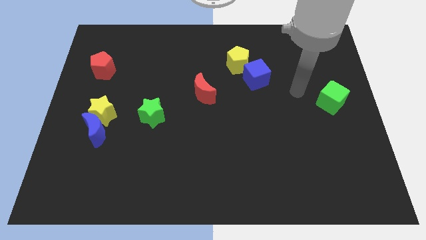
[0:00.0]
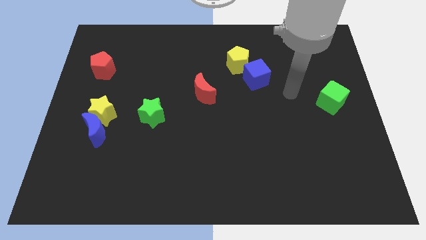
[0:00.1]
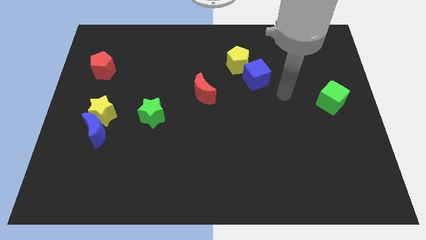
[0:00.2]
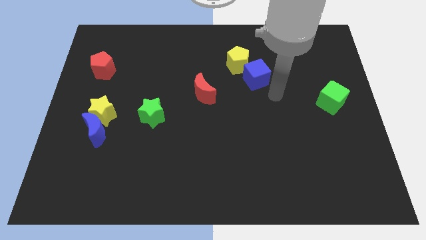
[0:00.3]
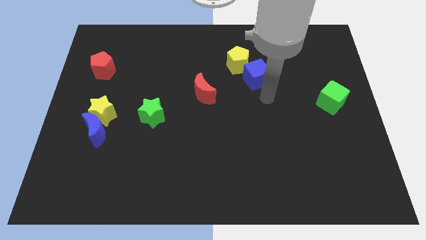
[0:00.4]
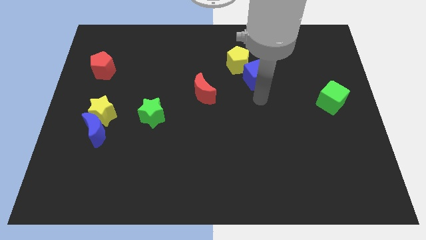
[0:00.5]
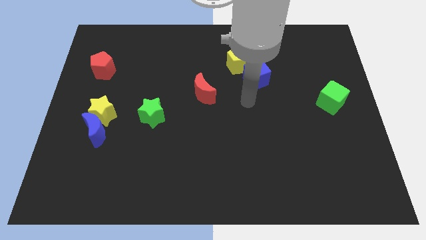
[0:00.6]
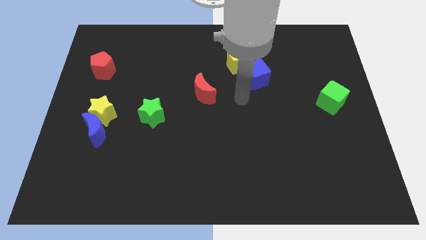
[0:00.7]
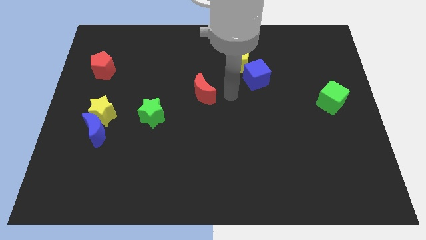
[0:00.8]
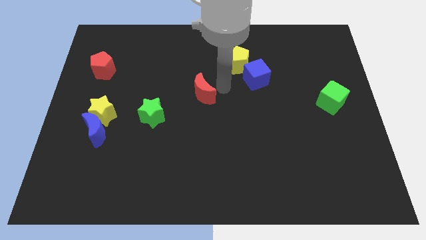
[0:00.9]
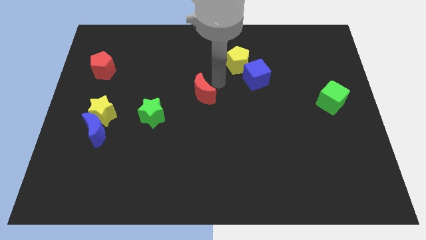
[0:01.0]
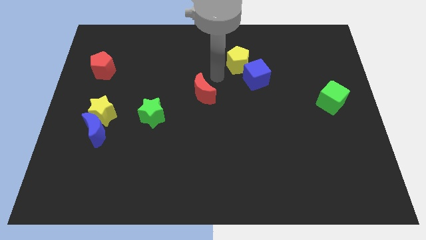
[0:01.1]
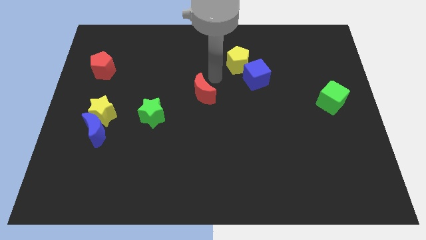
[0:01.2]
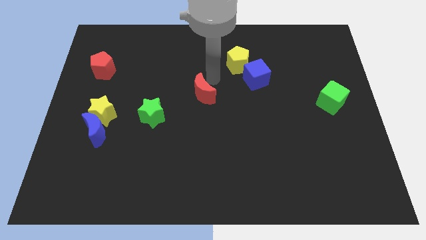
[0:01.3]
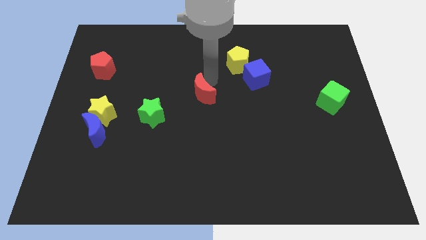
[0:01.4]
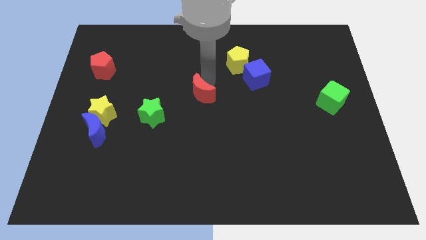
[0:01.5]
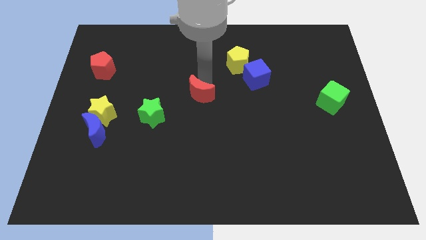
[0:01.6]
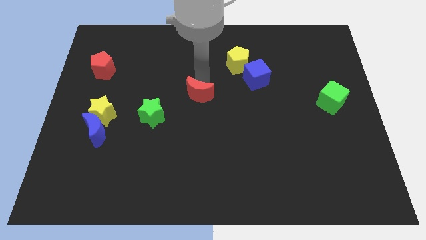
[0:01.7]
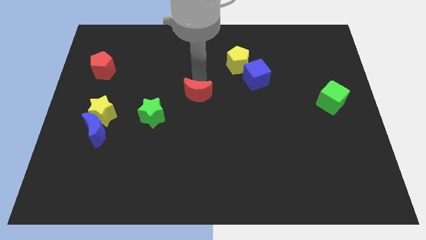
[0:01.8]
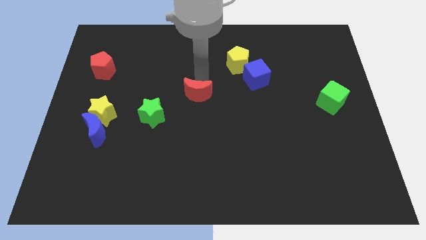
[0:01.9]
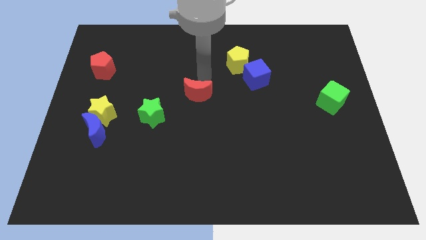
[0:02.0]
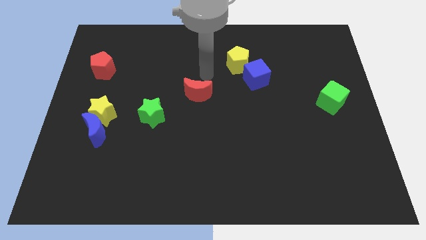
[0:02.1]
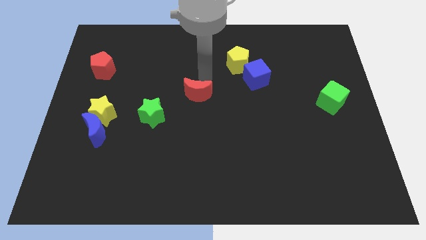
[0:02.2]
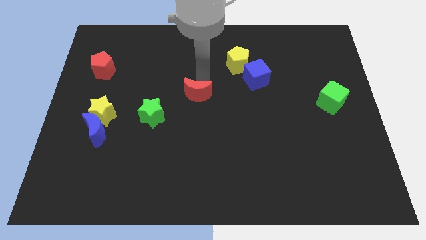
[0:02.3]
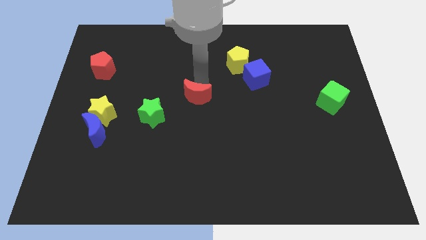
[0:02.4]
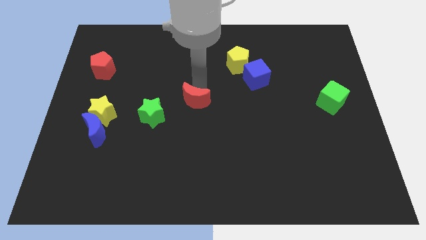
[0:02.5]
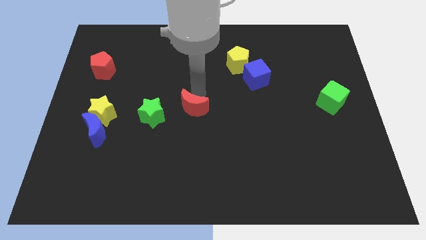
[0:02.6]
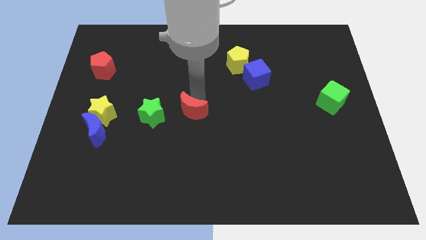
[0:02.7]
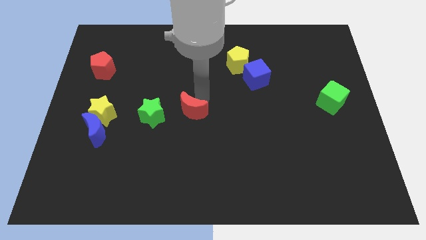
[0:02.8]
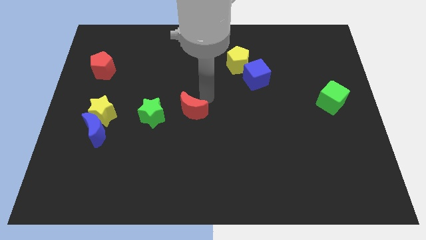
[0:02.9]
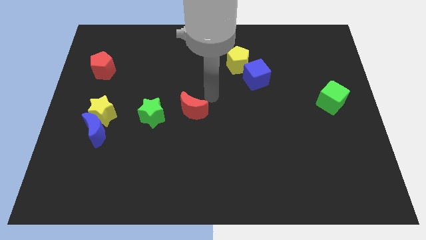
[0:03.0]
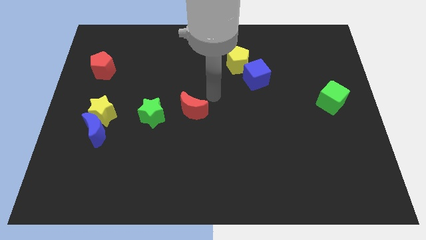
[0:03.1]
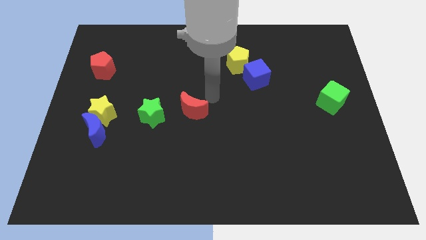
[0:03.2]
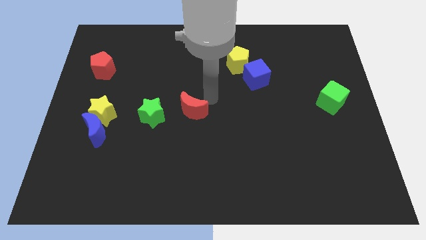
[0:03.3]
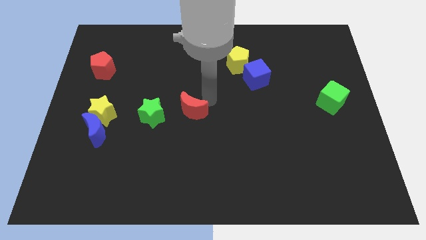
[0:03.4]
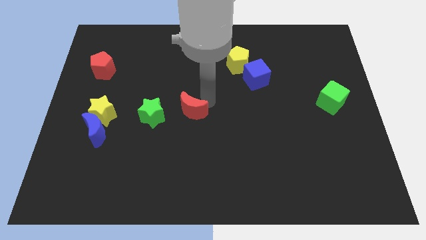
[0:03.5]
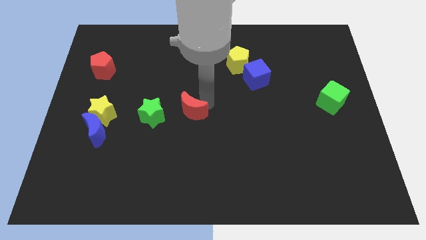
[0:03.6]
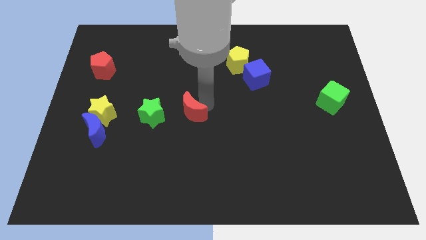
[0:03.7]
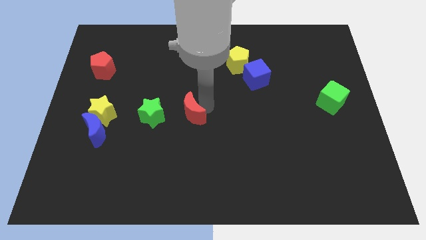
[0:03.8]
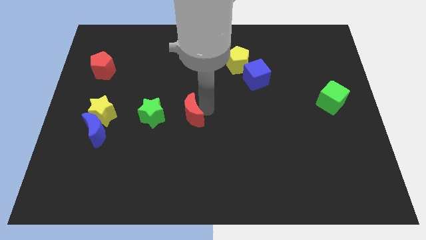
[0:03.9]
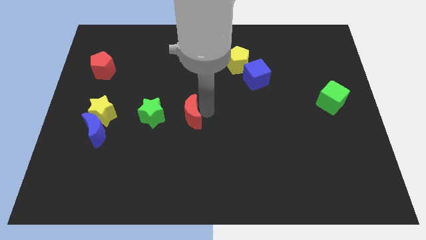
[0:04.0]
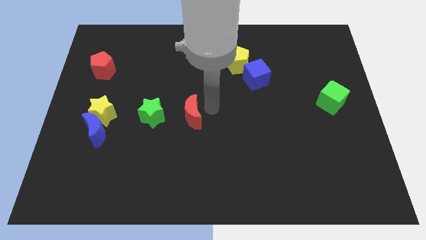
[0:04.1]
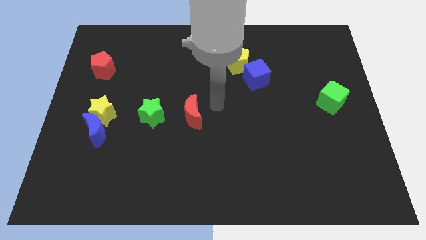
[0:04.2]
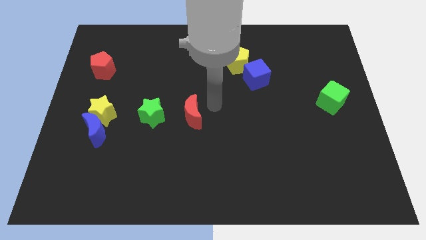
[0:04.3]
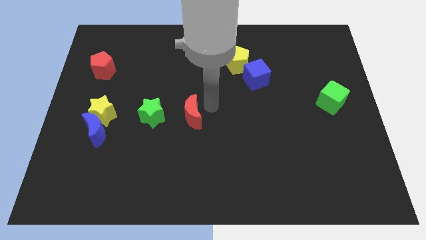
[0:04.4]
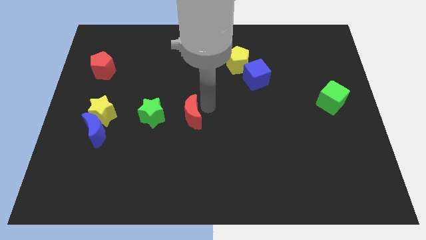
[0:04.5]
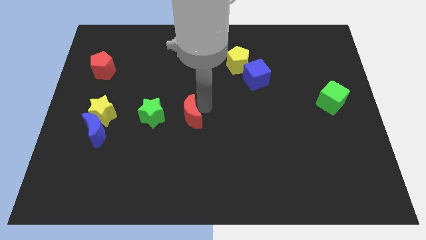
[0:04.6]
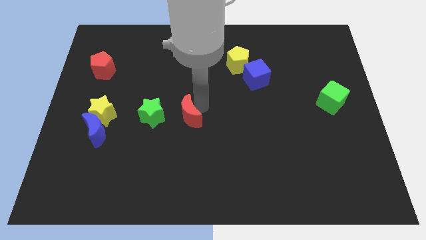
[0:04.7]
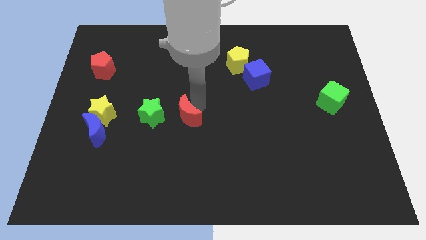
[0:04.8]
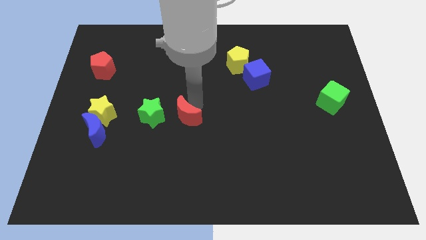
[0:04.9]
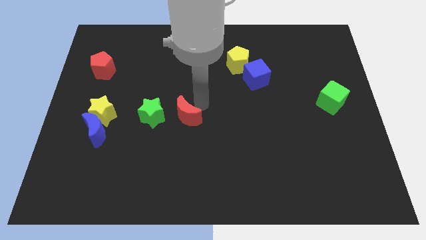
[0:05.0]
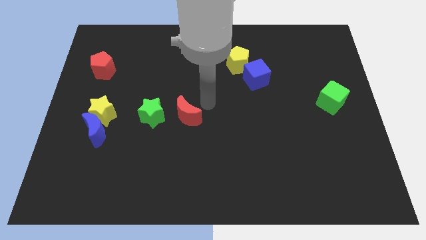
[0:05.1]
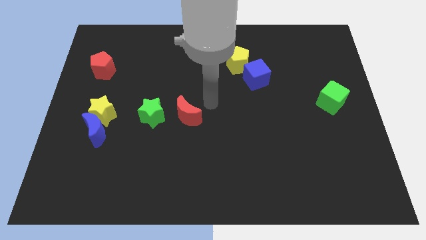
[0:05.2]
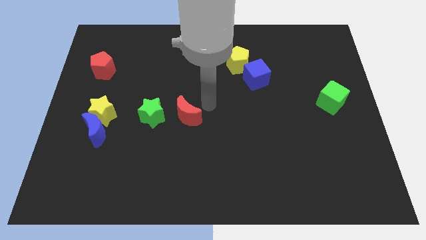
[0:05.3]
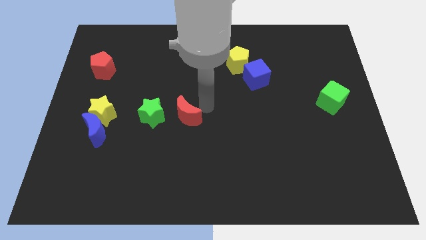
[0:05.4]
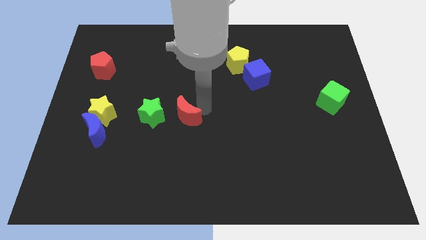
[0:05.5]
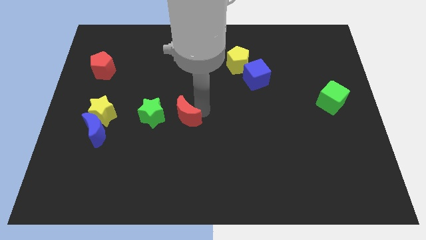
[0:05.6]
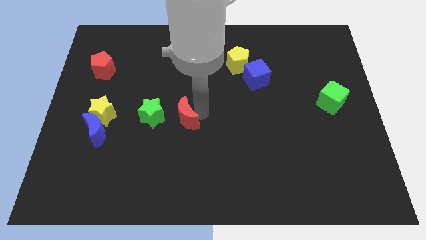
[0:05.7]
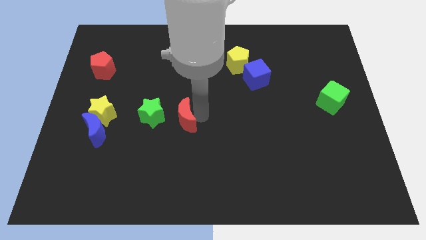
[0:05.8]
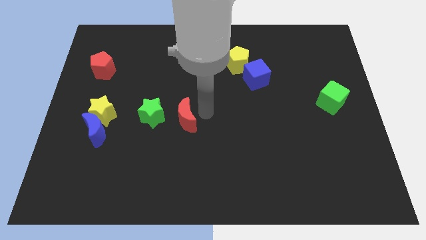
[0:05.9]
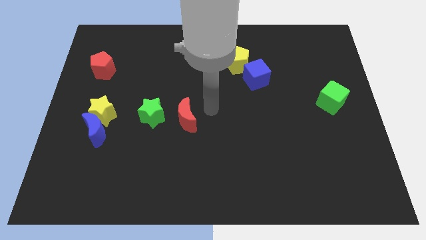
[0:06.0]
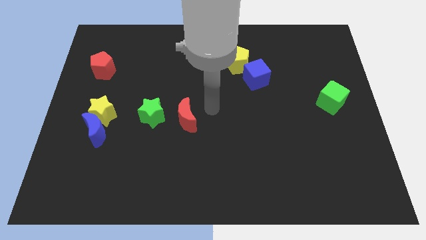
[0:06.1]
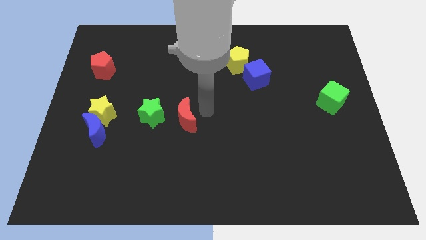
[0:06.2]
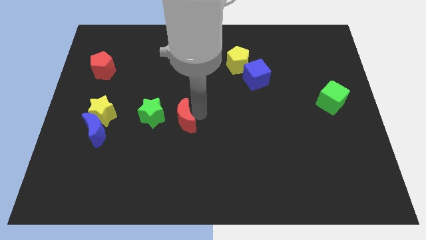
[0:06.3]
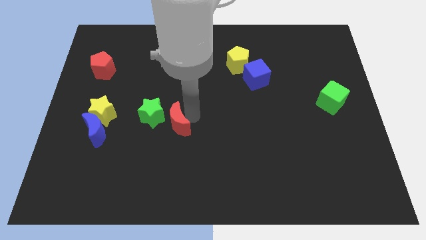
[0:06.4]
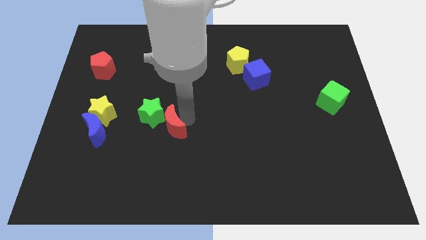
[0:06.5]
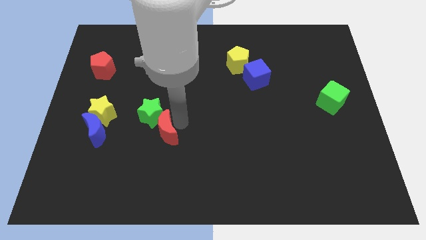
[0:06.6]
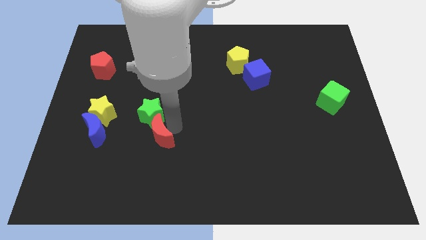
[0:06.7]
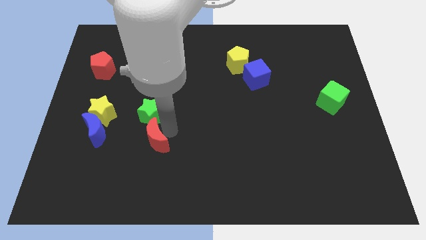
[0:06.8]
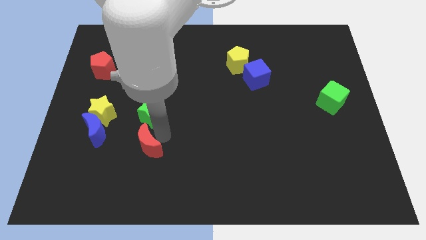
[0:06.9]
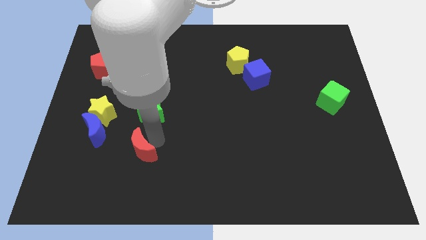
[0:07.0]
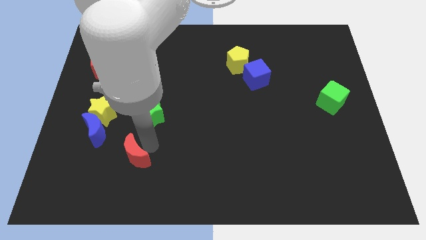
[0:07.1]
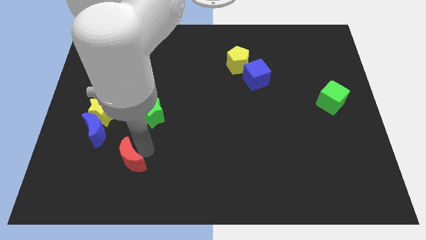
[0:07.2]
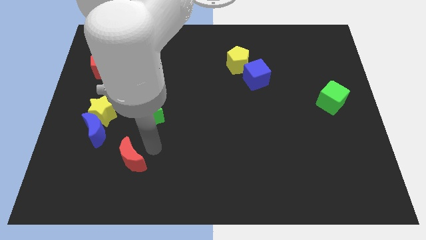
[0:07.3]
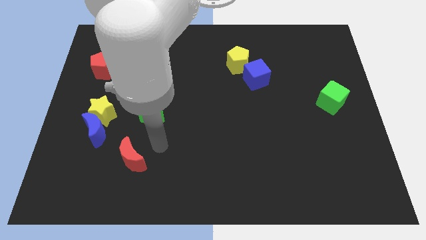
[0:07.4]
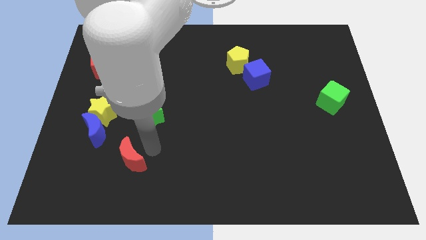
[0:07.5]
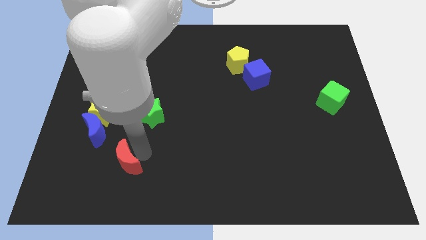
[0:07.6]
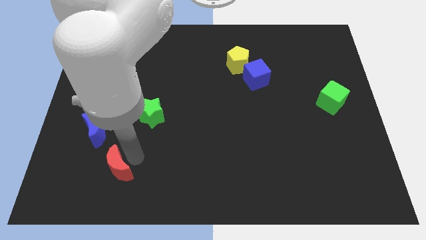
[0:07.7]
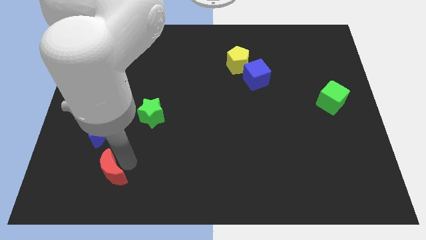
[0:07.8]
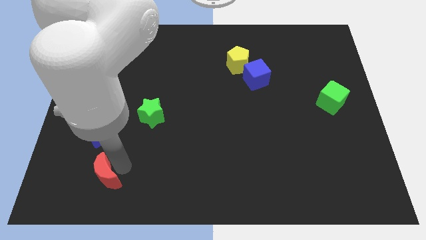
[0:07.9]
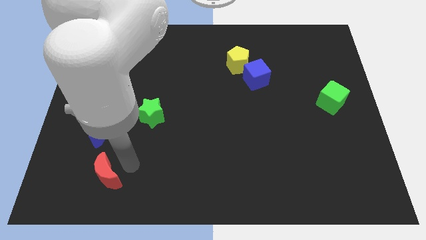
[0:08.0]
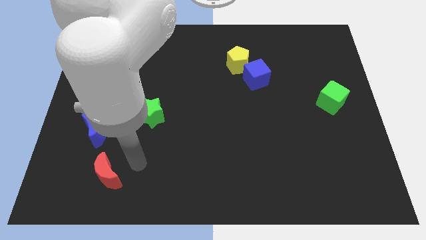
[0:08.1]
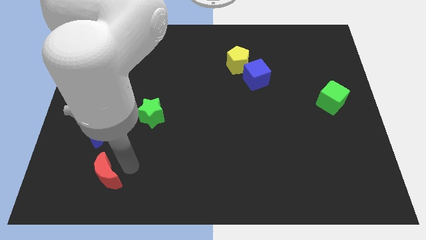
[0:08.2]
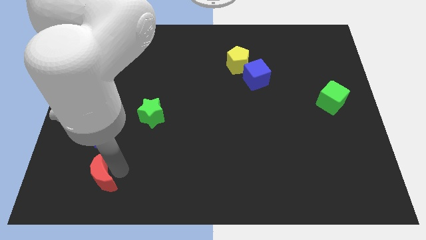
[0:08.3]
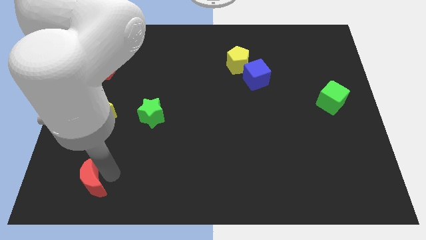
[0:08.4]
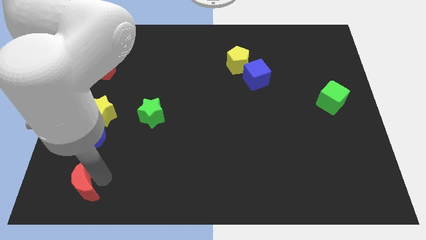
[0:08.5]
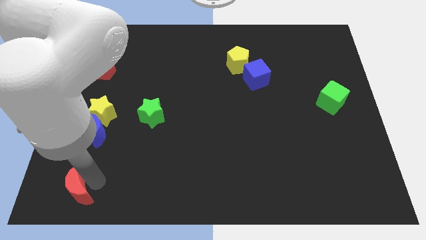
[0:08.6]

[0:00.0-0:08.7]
push the red moon to the bottom left corner
